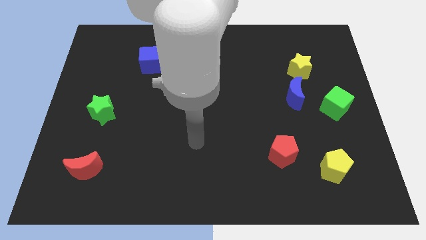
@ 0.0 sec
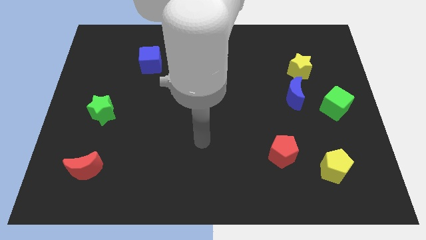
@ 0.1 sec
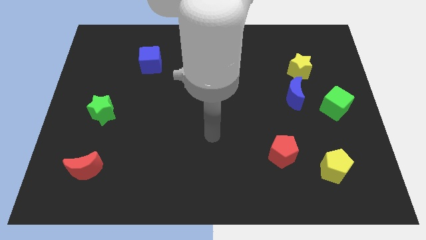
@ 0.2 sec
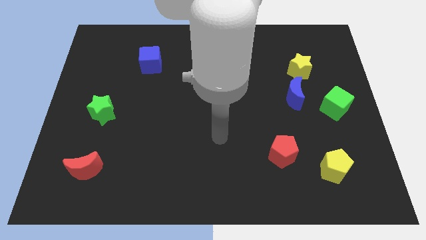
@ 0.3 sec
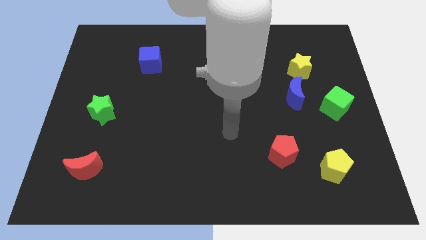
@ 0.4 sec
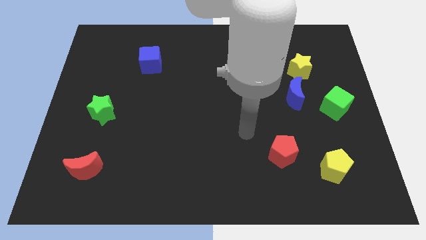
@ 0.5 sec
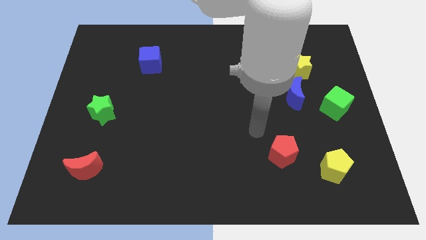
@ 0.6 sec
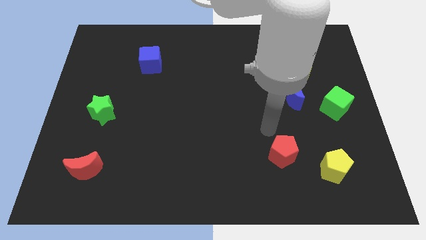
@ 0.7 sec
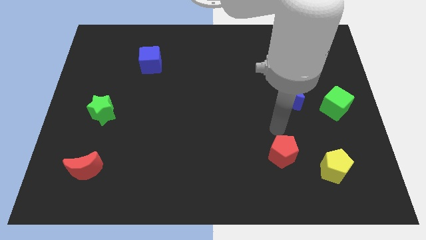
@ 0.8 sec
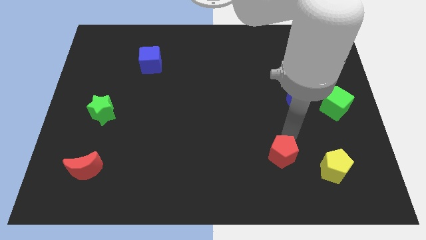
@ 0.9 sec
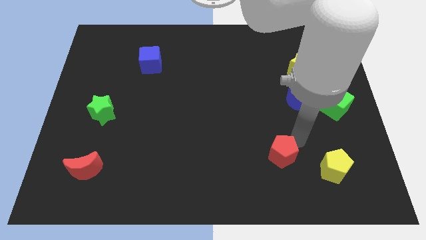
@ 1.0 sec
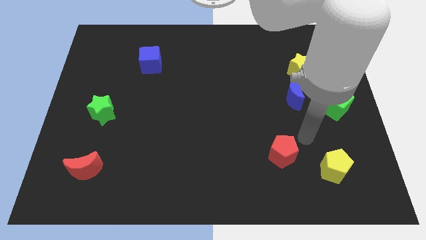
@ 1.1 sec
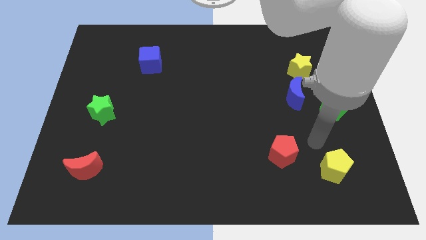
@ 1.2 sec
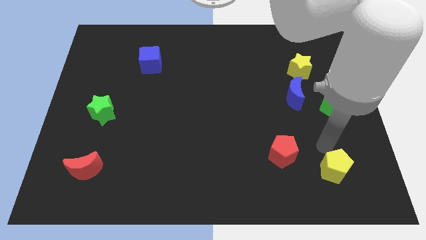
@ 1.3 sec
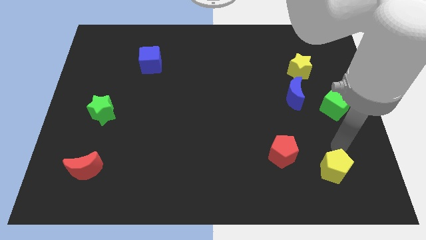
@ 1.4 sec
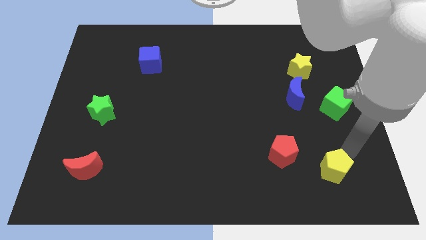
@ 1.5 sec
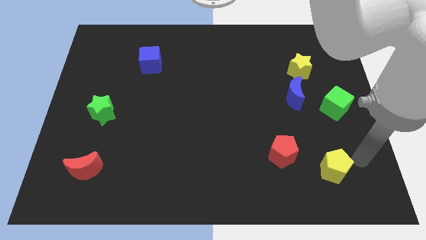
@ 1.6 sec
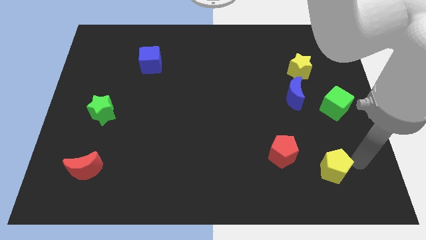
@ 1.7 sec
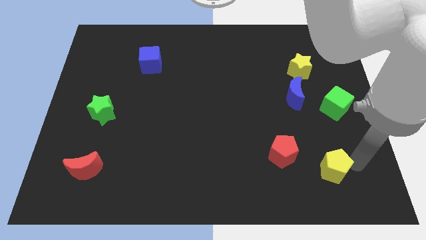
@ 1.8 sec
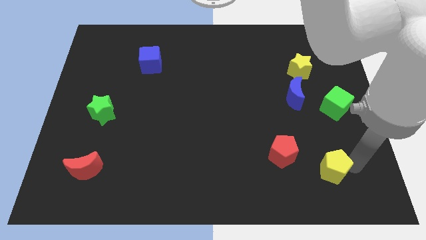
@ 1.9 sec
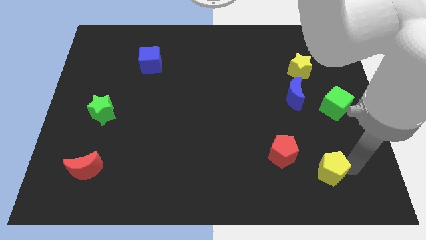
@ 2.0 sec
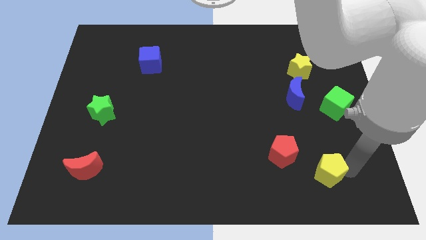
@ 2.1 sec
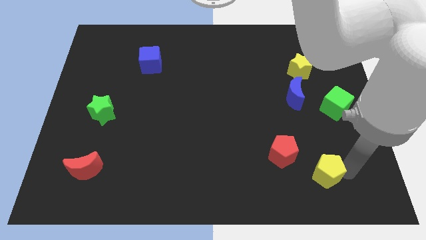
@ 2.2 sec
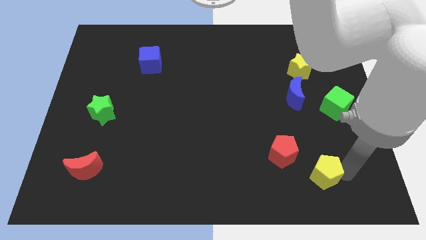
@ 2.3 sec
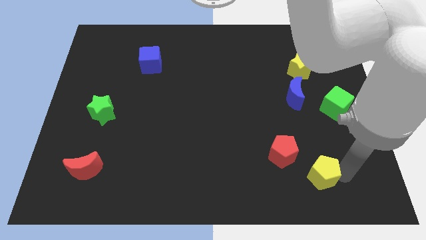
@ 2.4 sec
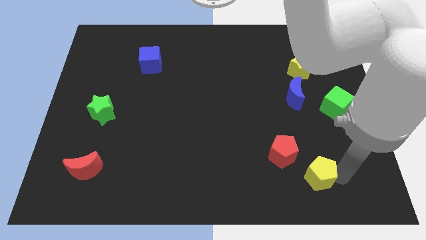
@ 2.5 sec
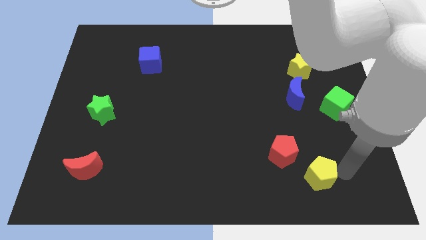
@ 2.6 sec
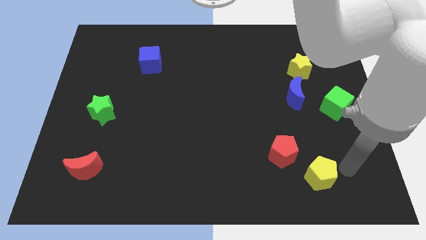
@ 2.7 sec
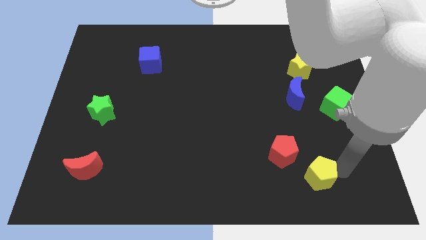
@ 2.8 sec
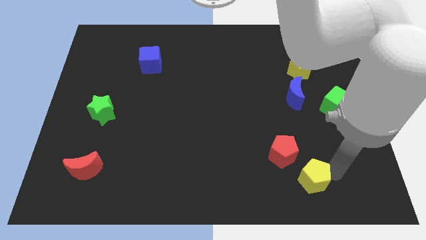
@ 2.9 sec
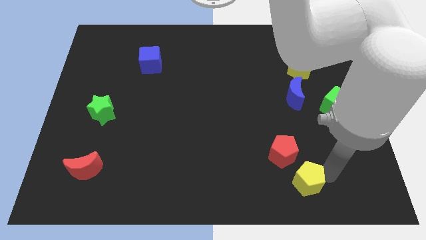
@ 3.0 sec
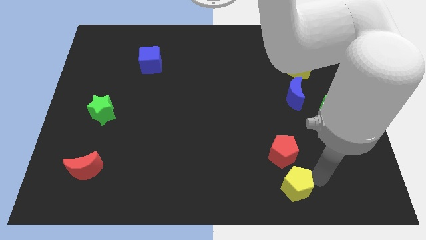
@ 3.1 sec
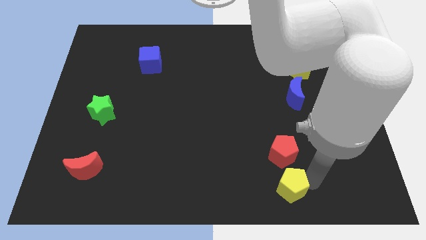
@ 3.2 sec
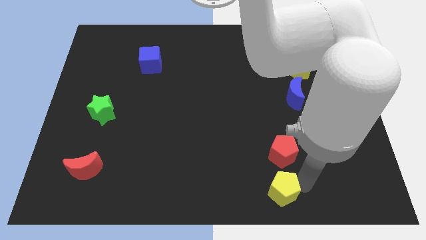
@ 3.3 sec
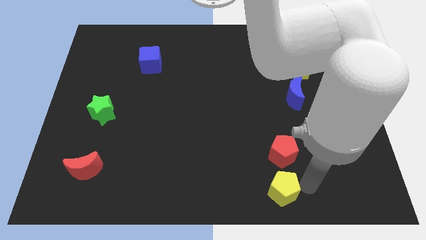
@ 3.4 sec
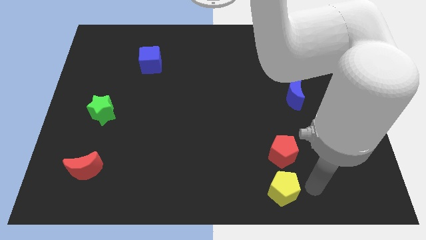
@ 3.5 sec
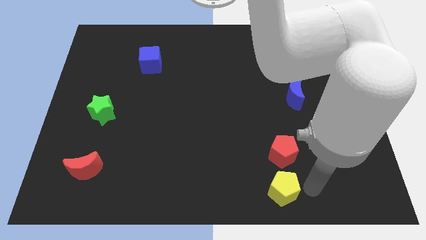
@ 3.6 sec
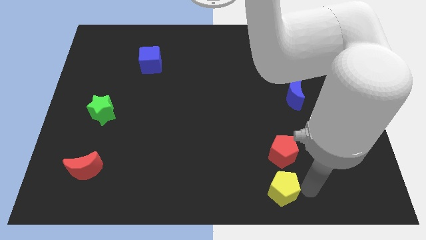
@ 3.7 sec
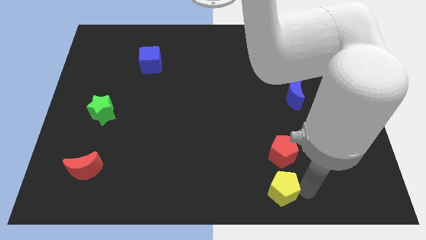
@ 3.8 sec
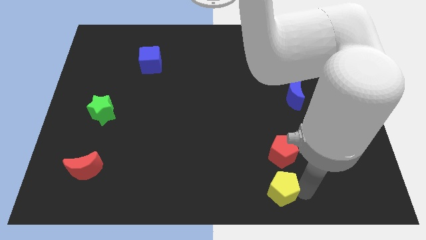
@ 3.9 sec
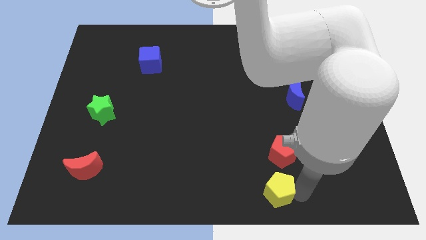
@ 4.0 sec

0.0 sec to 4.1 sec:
push the yellow pentagon to the bottom

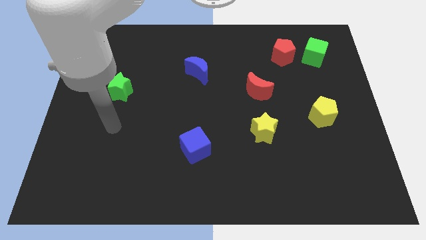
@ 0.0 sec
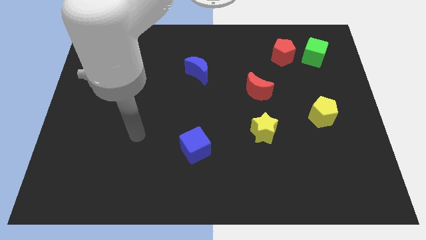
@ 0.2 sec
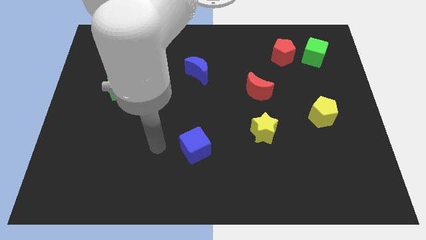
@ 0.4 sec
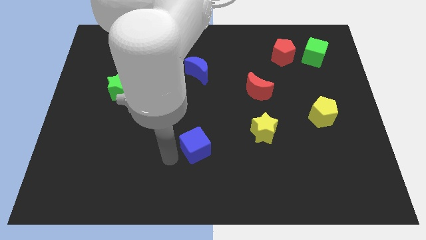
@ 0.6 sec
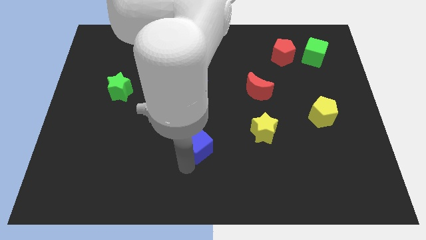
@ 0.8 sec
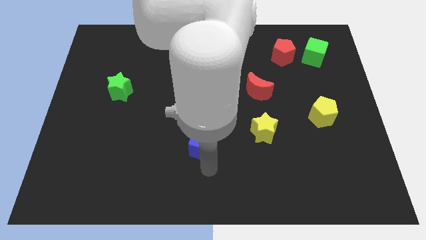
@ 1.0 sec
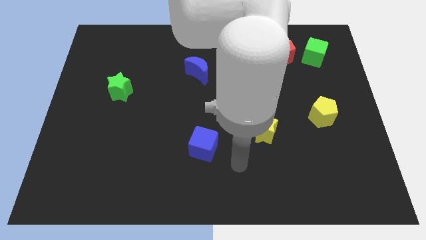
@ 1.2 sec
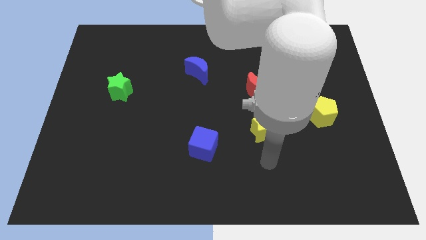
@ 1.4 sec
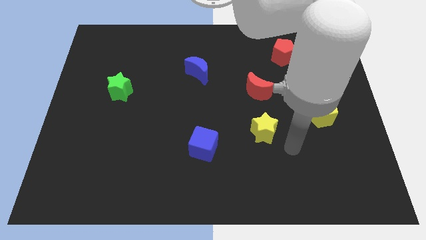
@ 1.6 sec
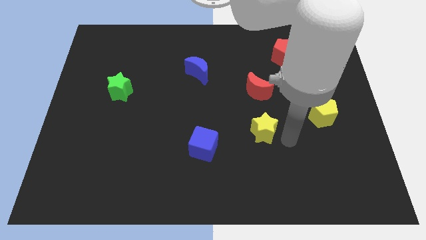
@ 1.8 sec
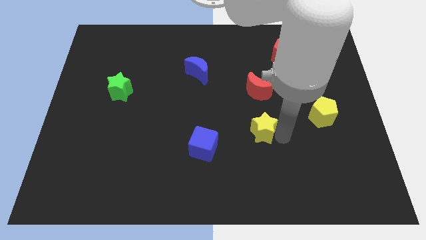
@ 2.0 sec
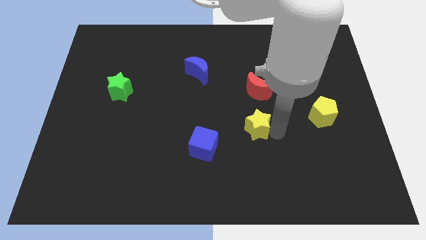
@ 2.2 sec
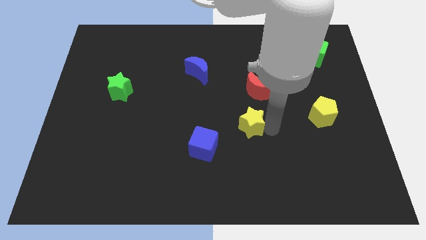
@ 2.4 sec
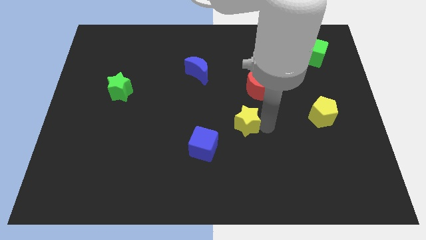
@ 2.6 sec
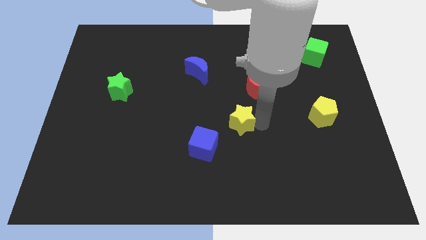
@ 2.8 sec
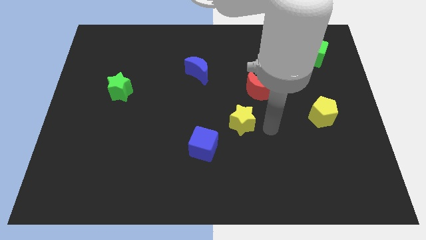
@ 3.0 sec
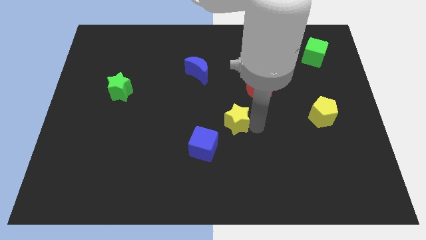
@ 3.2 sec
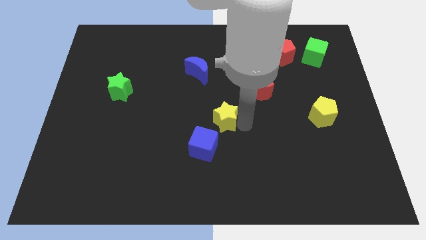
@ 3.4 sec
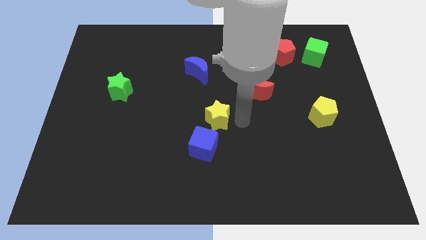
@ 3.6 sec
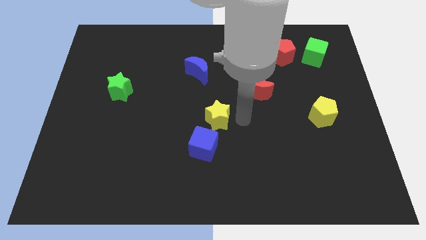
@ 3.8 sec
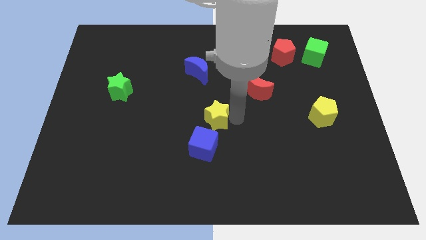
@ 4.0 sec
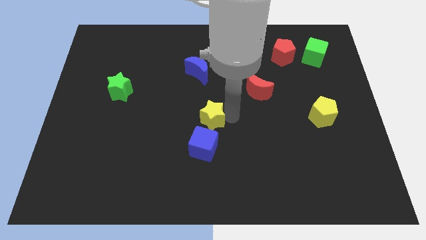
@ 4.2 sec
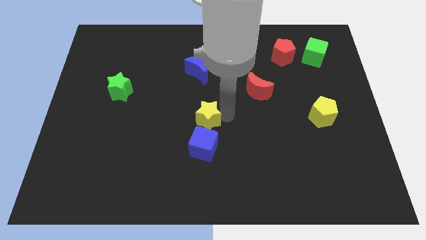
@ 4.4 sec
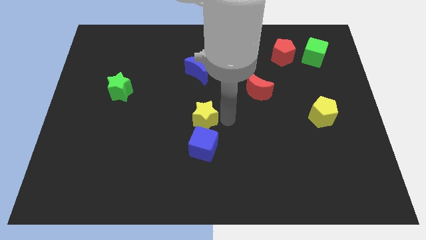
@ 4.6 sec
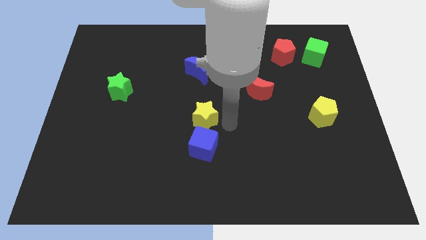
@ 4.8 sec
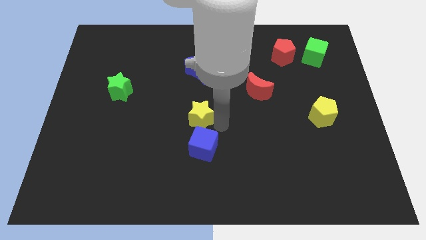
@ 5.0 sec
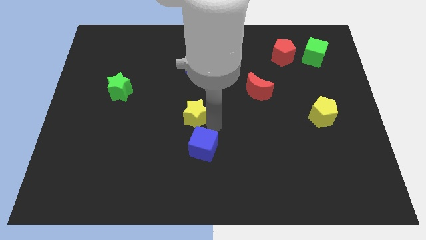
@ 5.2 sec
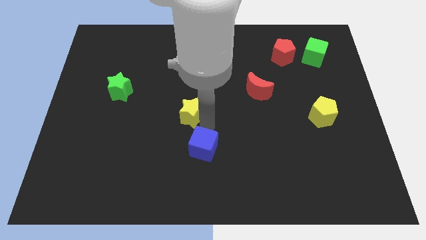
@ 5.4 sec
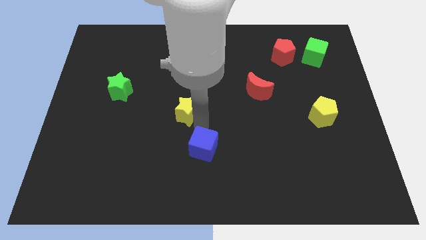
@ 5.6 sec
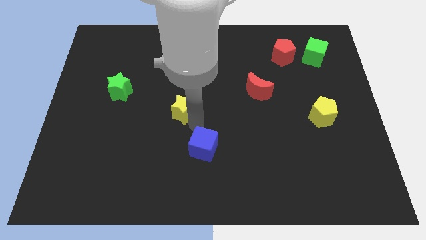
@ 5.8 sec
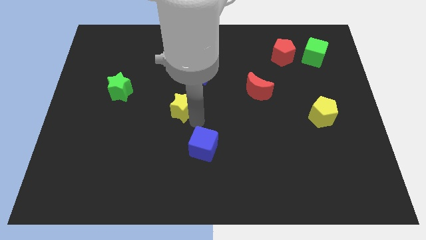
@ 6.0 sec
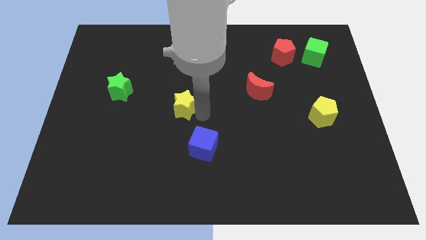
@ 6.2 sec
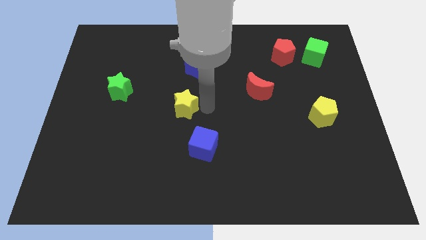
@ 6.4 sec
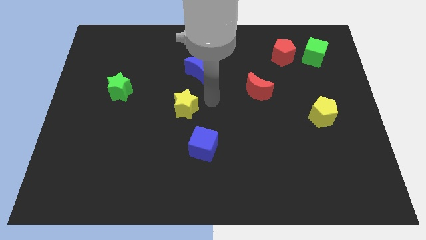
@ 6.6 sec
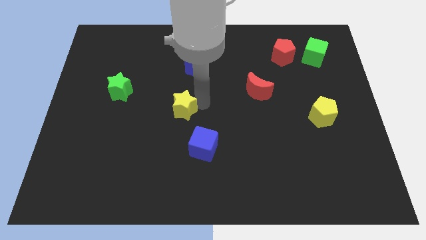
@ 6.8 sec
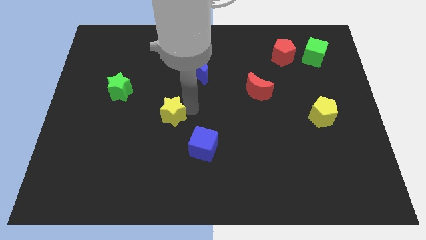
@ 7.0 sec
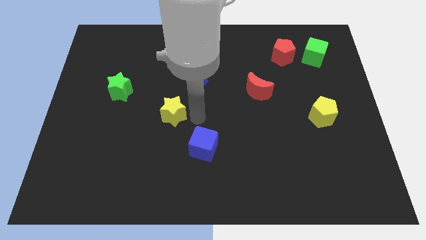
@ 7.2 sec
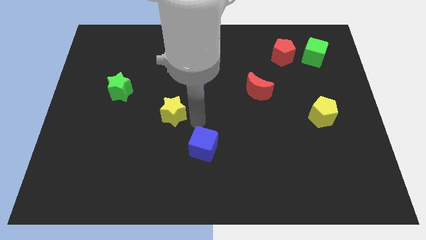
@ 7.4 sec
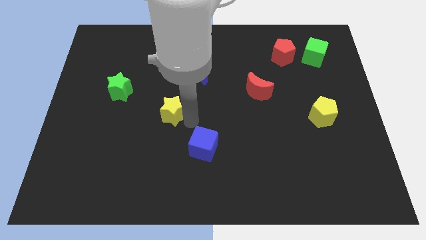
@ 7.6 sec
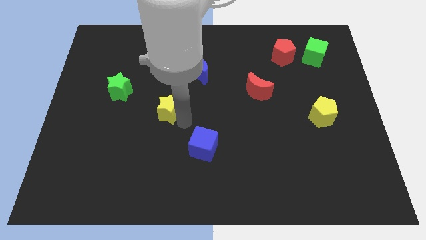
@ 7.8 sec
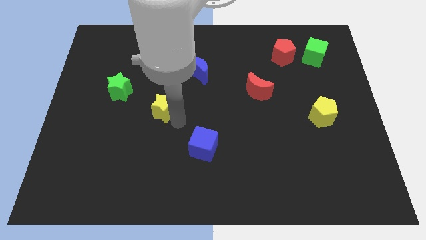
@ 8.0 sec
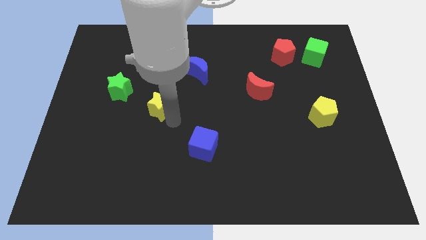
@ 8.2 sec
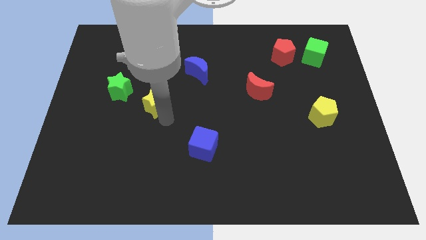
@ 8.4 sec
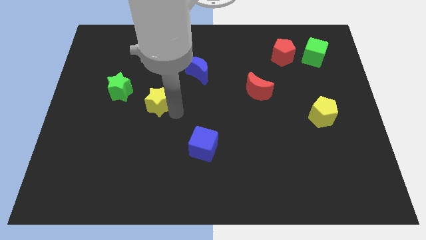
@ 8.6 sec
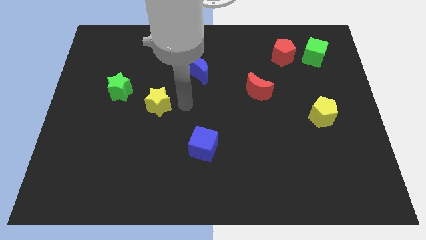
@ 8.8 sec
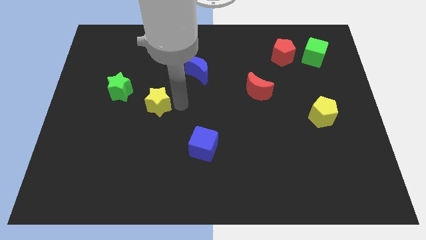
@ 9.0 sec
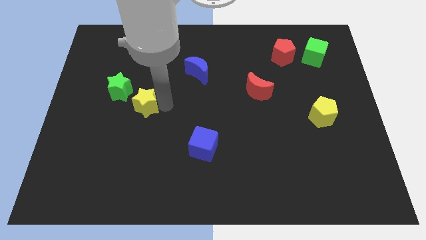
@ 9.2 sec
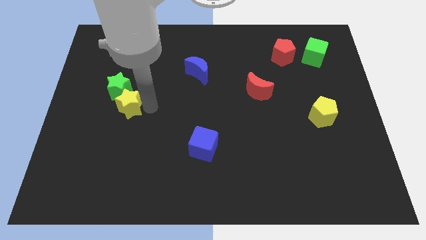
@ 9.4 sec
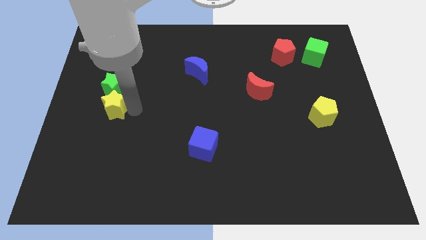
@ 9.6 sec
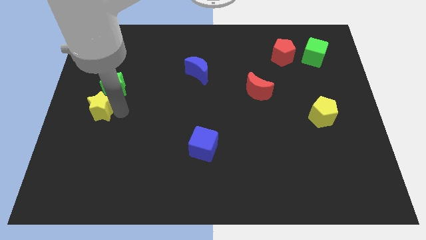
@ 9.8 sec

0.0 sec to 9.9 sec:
slide the yellow star to the center left
